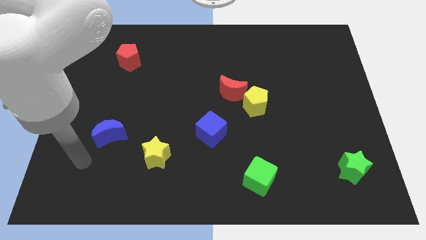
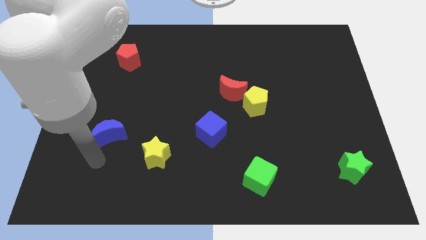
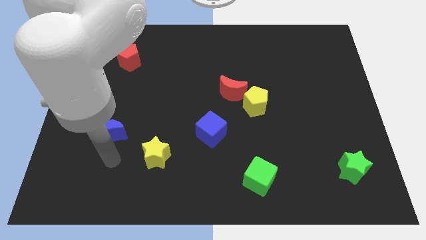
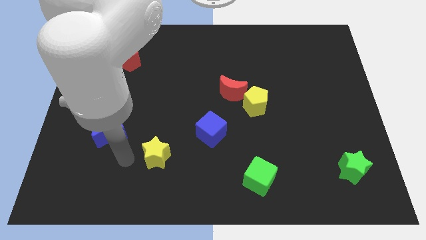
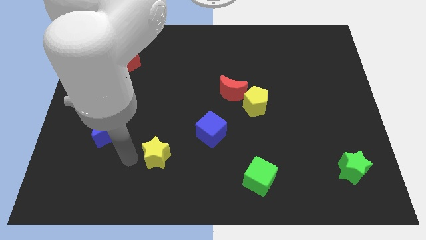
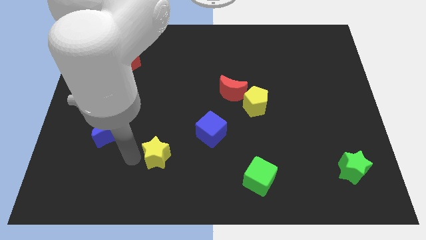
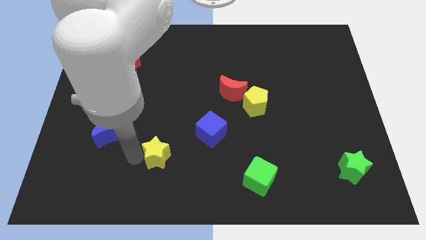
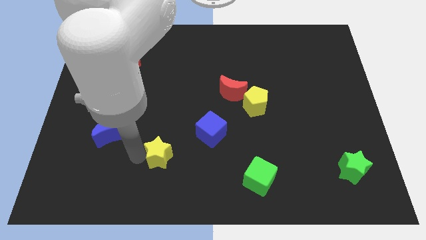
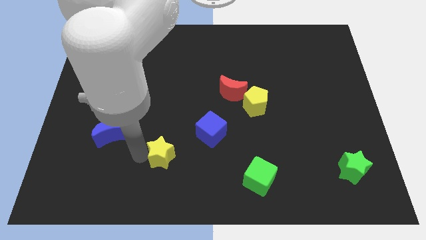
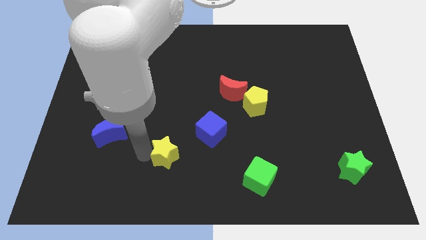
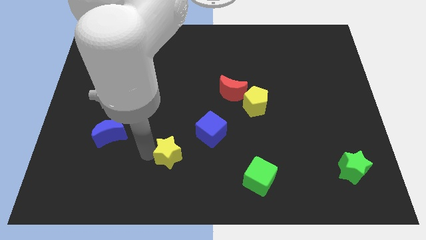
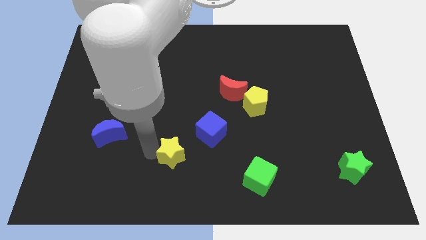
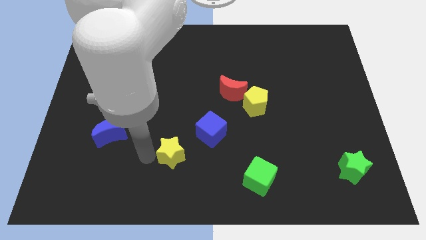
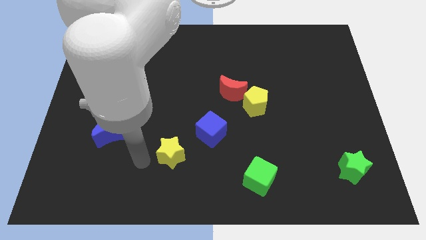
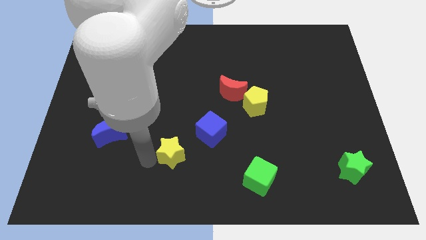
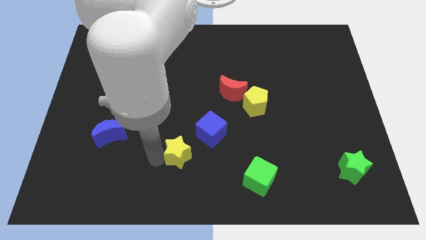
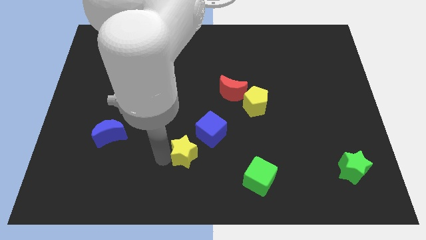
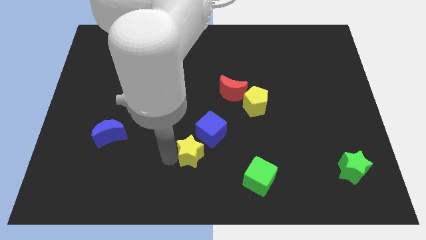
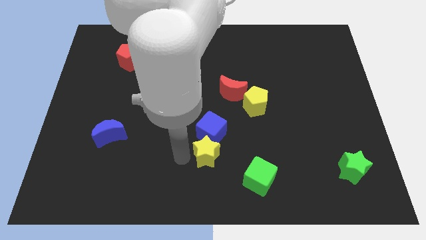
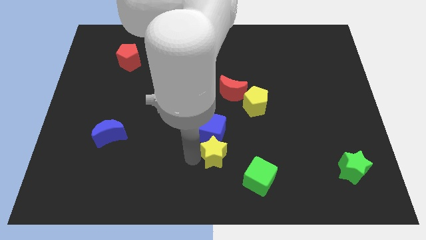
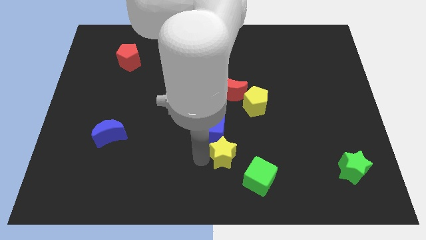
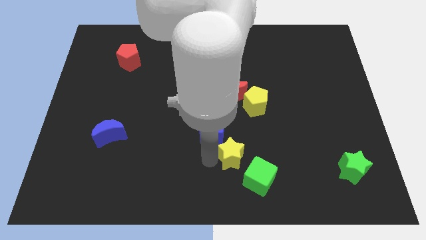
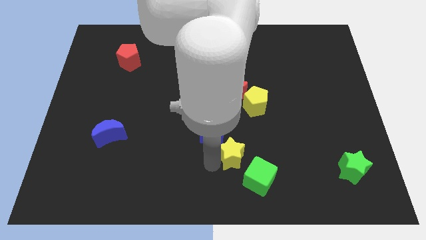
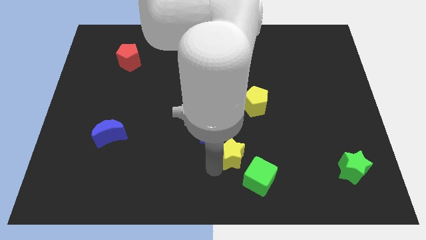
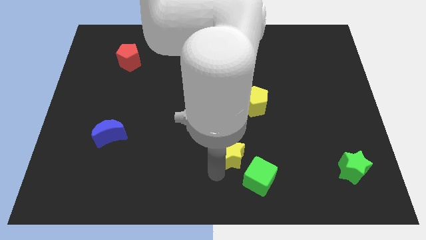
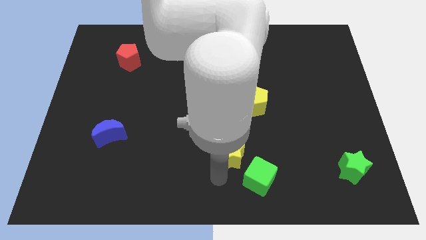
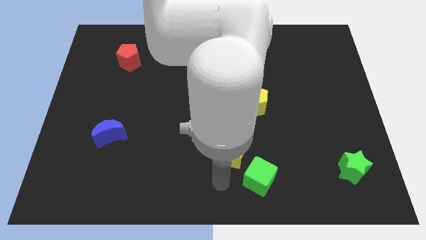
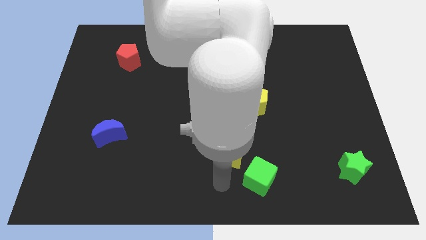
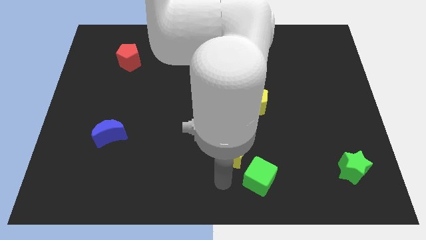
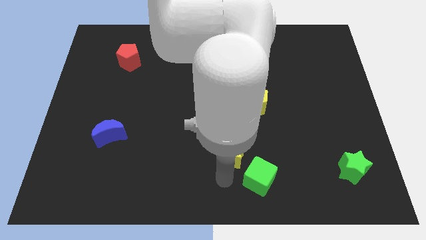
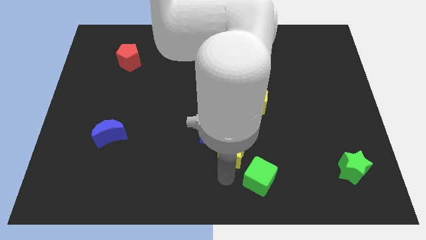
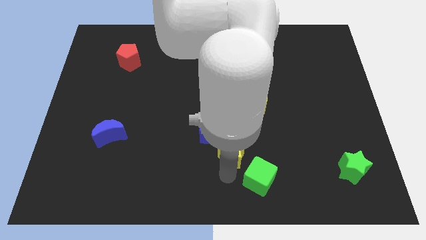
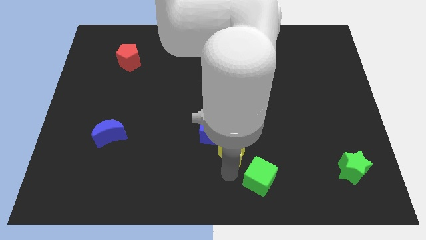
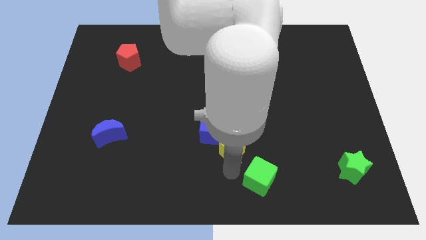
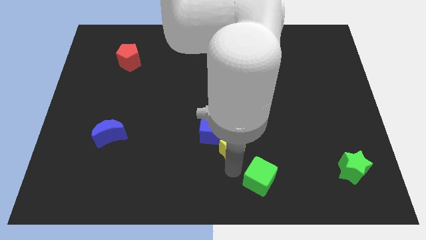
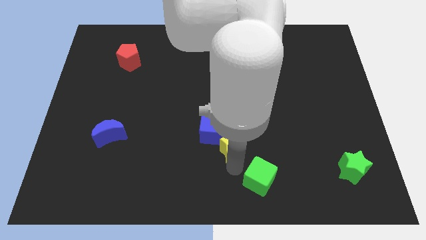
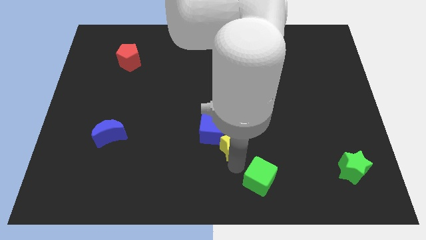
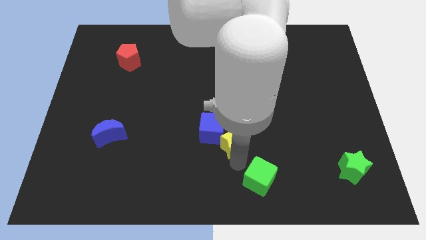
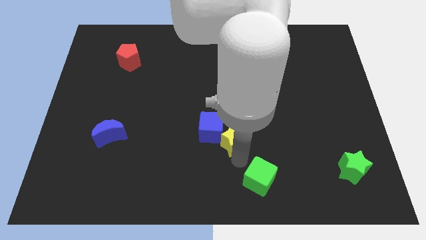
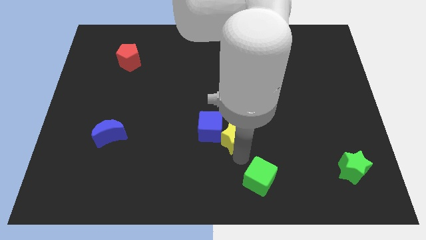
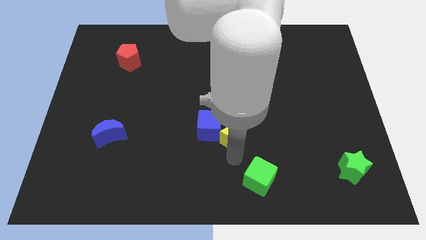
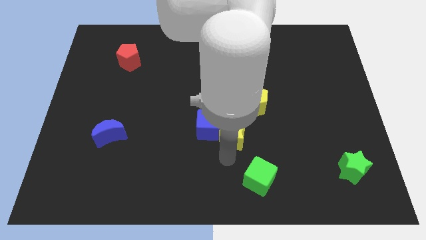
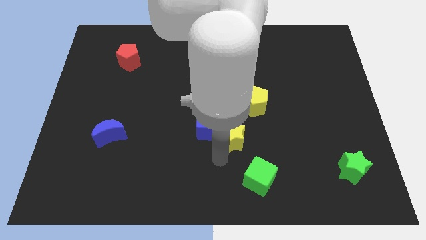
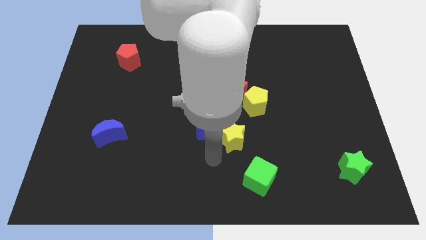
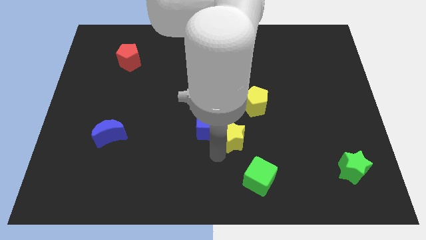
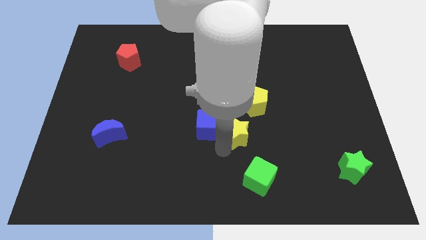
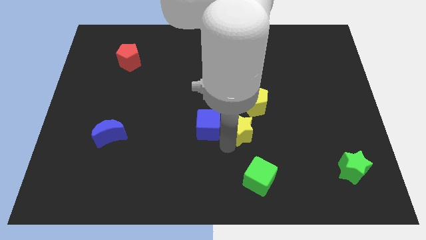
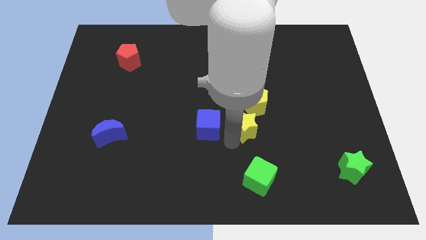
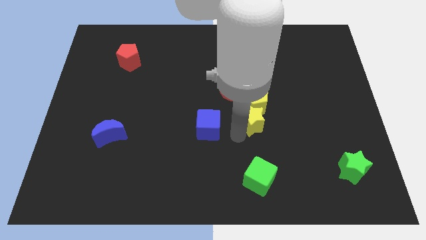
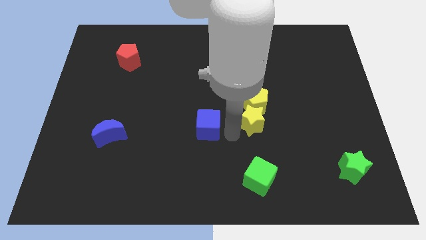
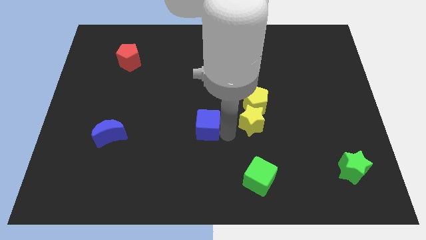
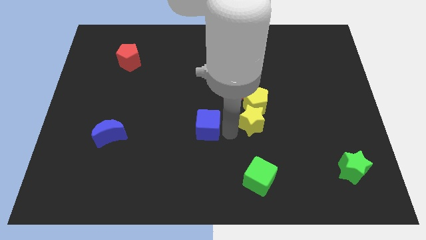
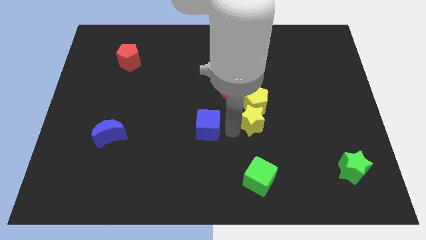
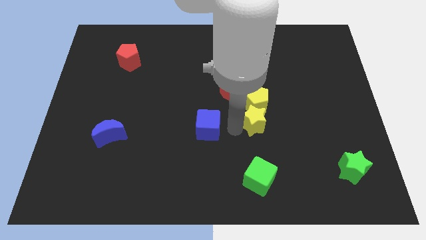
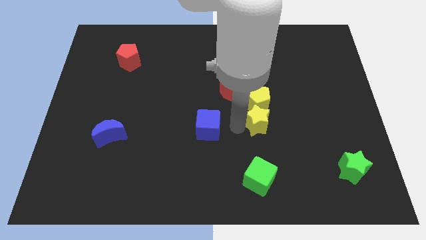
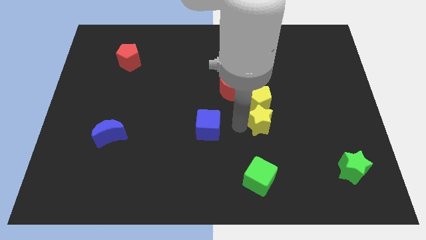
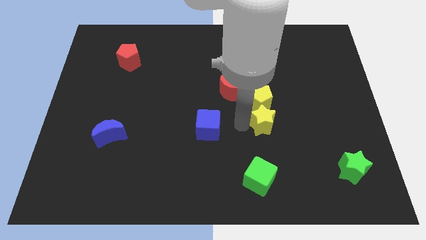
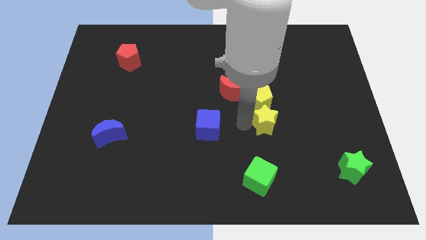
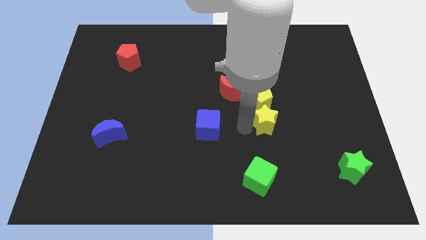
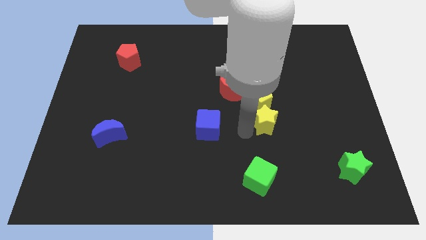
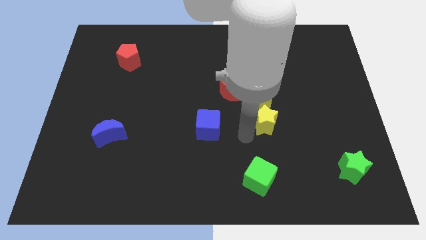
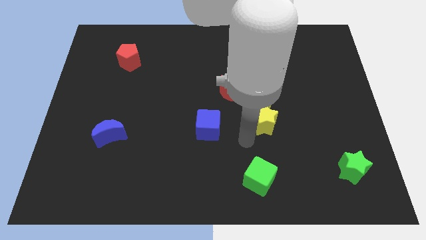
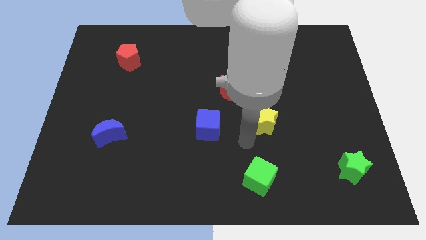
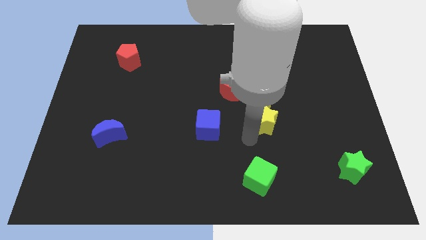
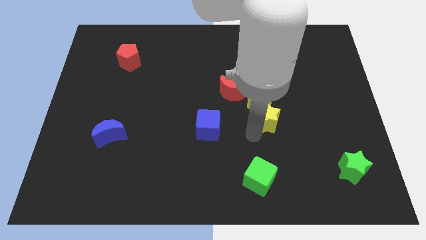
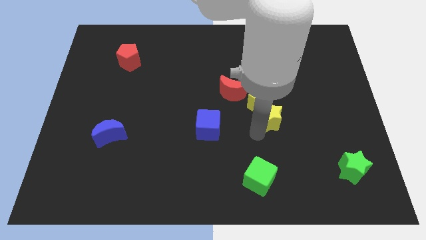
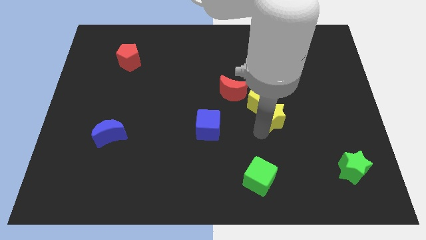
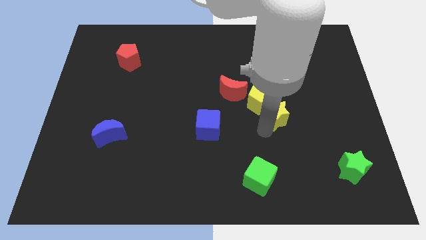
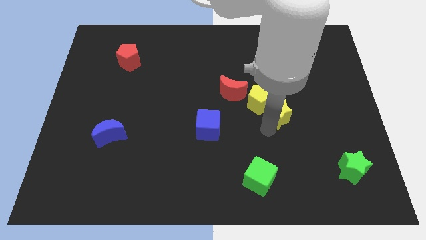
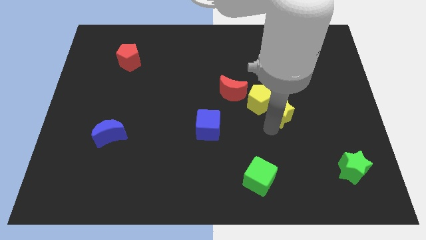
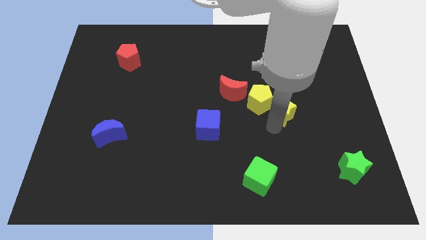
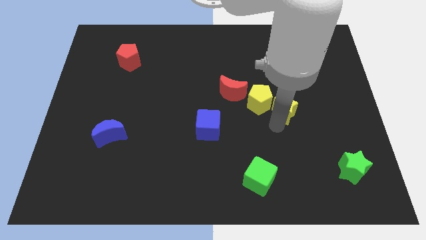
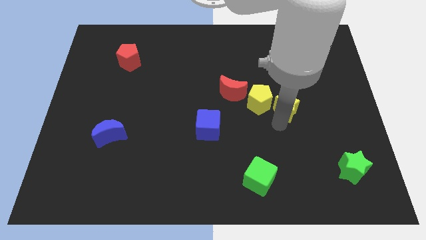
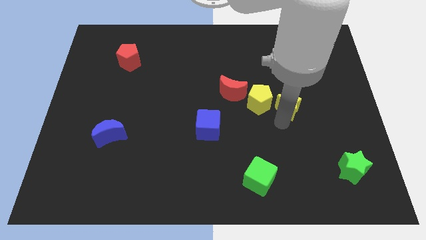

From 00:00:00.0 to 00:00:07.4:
move the yellow star to the right of the red moon
